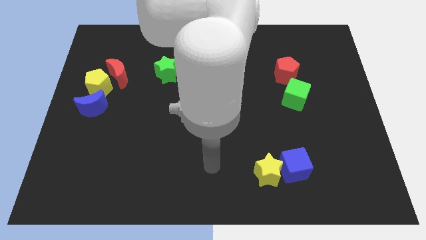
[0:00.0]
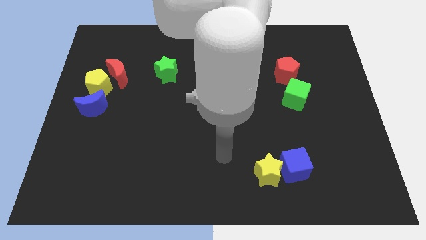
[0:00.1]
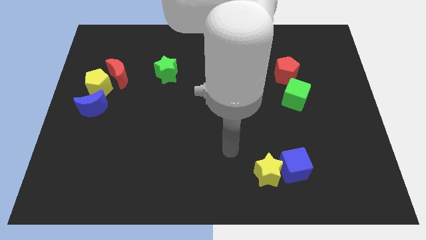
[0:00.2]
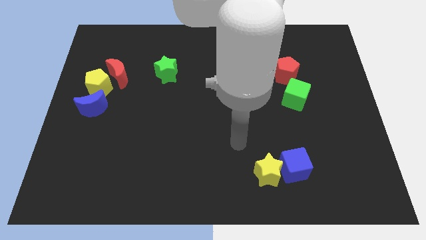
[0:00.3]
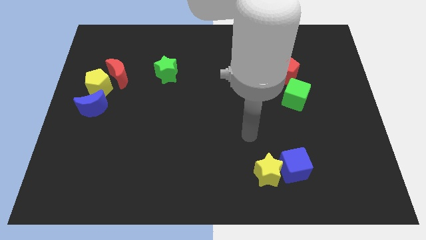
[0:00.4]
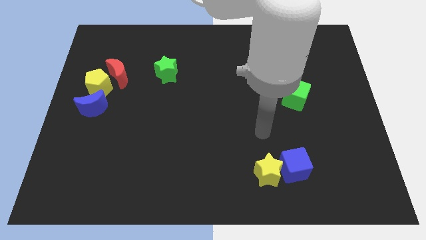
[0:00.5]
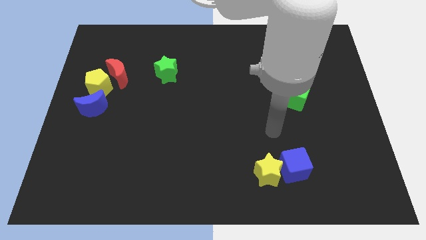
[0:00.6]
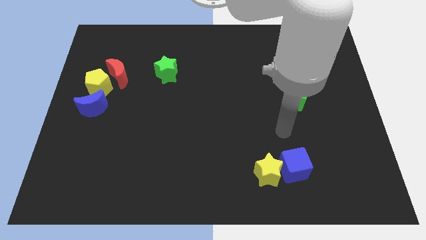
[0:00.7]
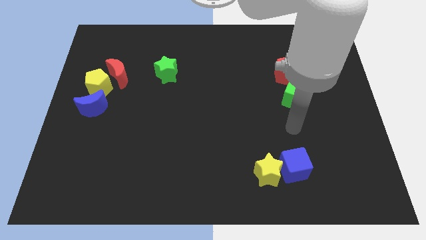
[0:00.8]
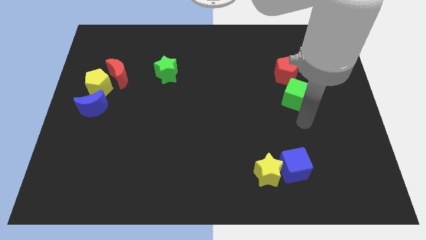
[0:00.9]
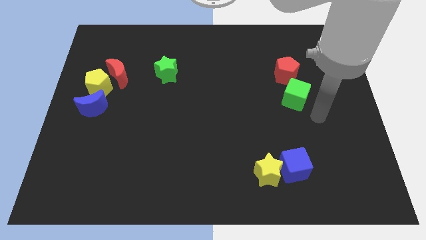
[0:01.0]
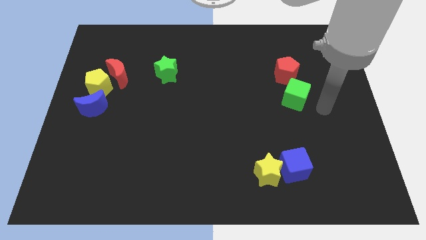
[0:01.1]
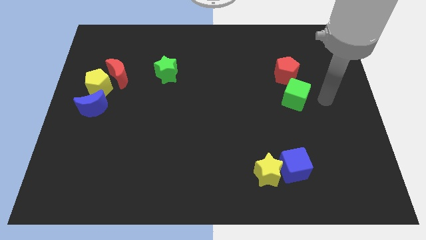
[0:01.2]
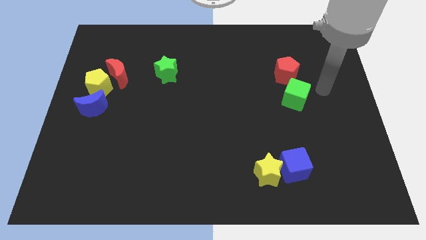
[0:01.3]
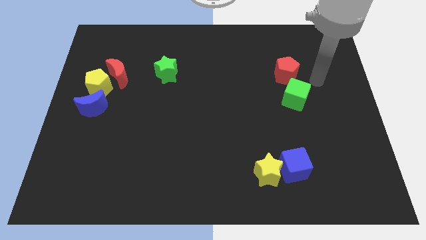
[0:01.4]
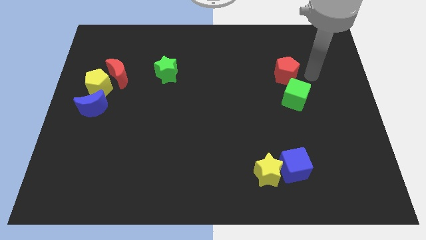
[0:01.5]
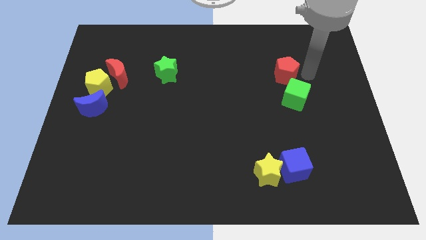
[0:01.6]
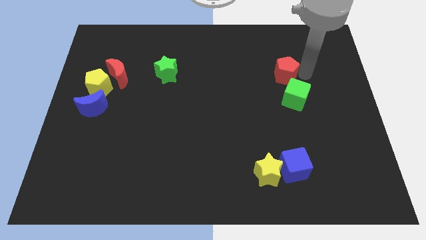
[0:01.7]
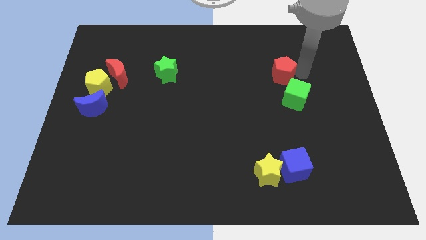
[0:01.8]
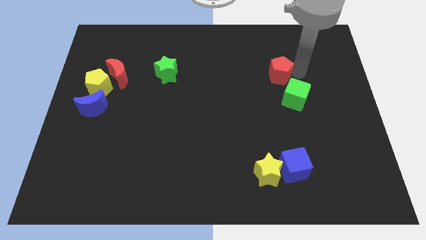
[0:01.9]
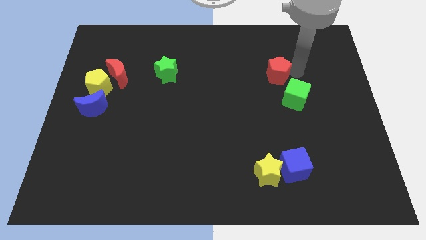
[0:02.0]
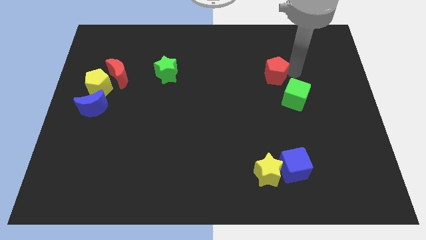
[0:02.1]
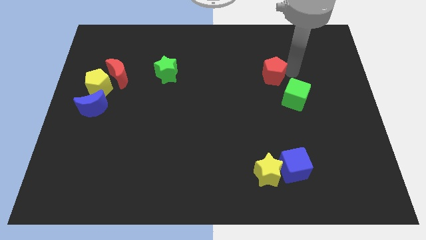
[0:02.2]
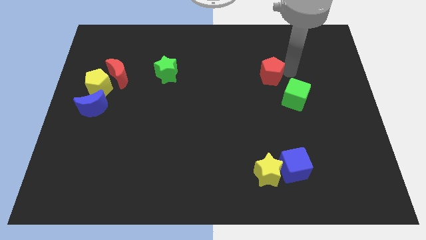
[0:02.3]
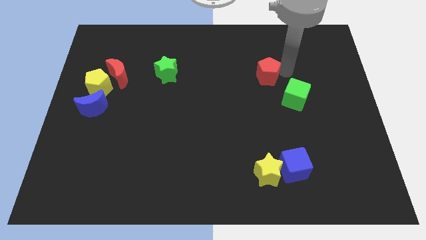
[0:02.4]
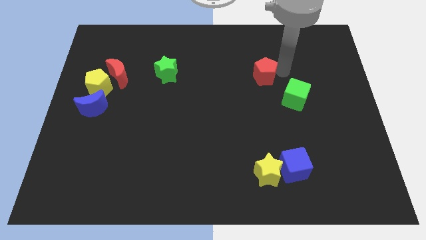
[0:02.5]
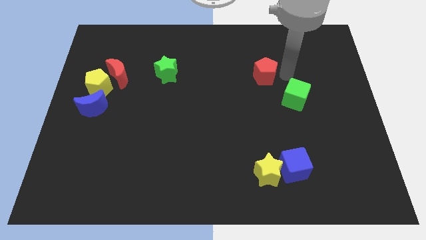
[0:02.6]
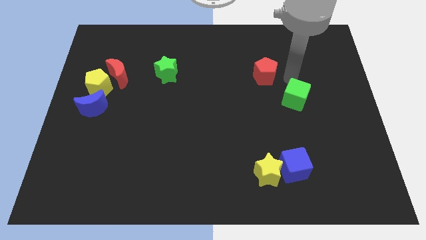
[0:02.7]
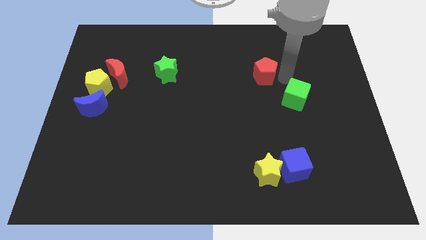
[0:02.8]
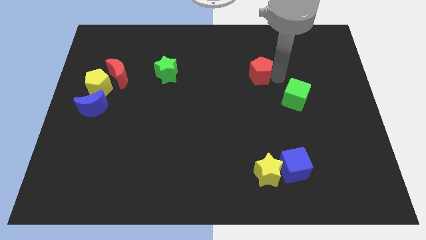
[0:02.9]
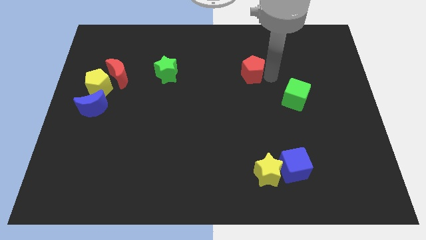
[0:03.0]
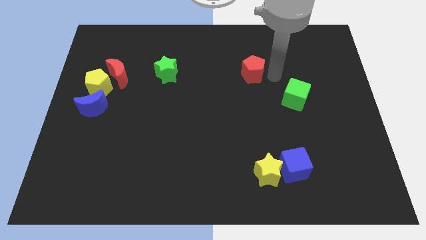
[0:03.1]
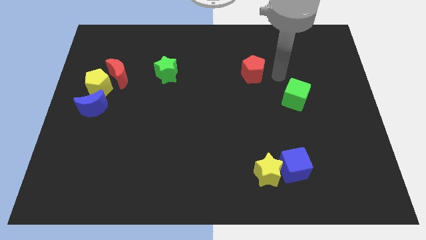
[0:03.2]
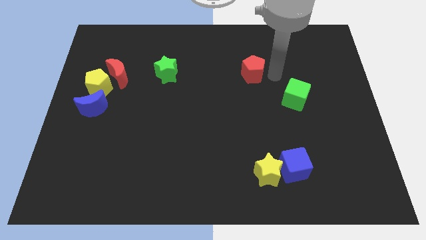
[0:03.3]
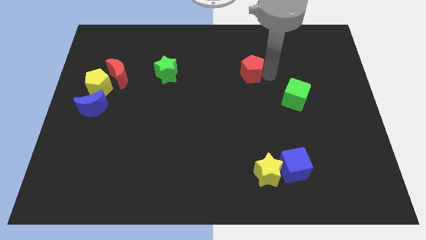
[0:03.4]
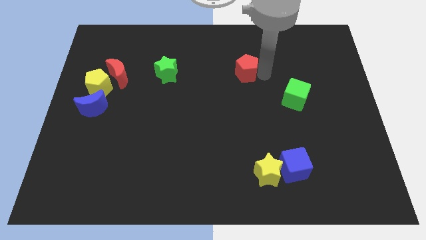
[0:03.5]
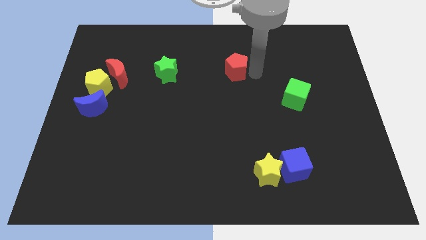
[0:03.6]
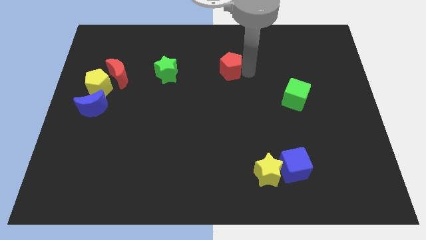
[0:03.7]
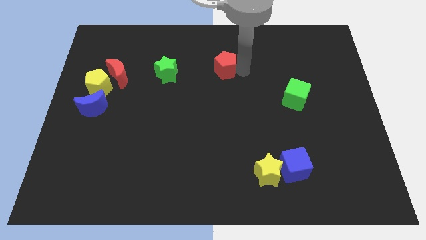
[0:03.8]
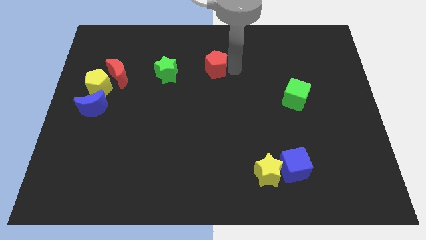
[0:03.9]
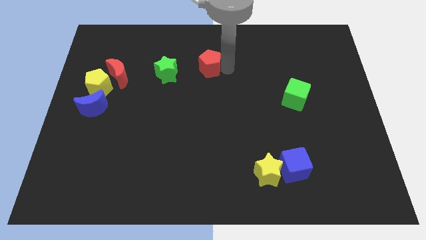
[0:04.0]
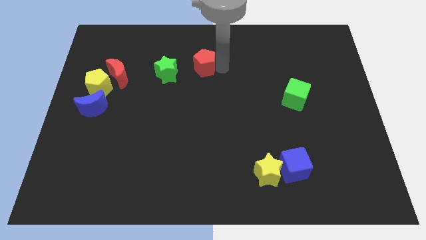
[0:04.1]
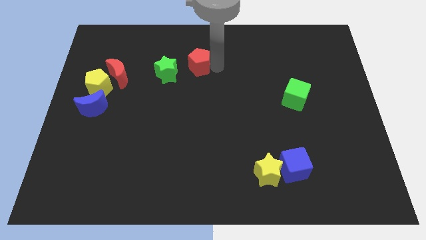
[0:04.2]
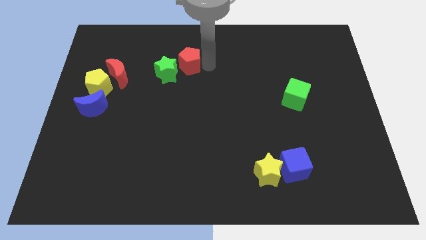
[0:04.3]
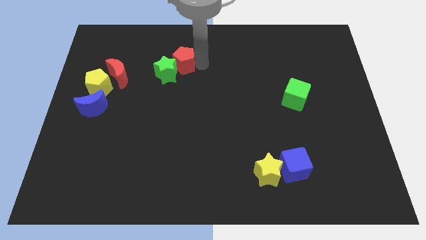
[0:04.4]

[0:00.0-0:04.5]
put the red pentagon close to the green star

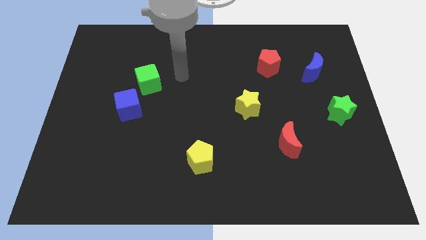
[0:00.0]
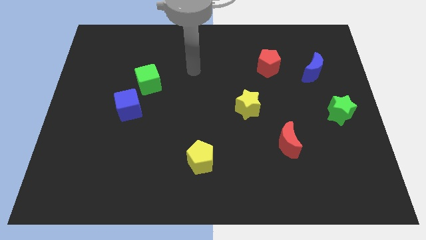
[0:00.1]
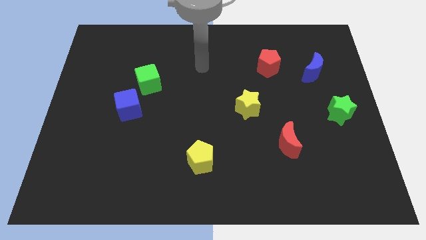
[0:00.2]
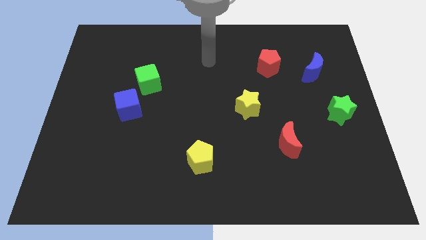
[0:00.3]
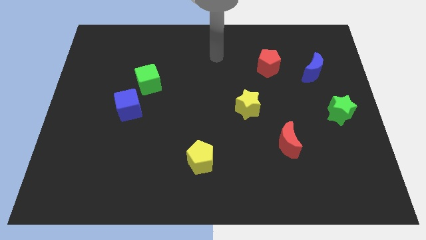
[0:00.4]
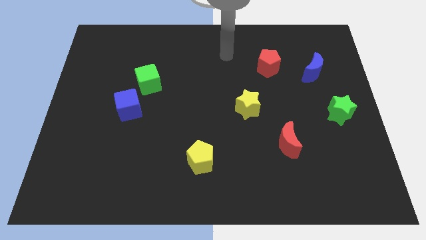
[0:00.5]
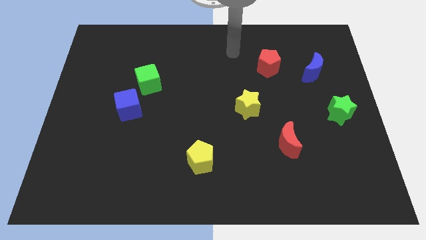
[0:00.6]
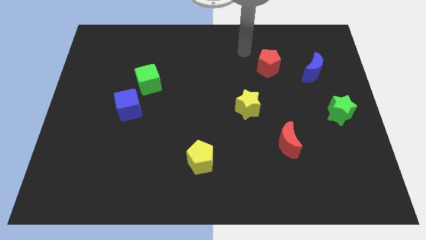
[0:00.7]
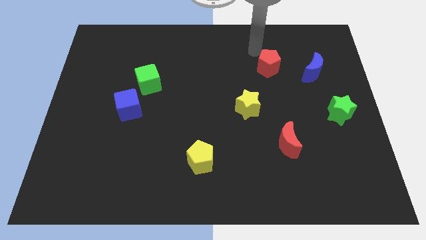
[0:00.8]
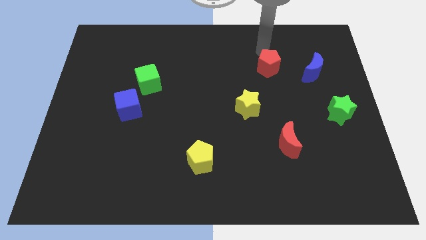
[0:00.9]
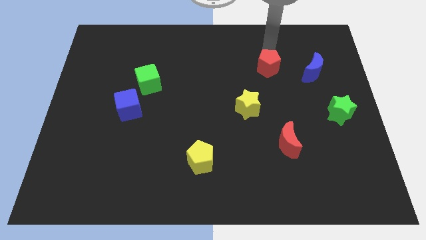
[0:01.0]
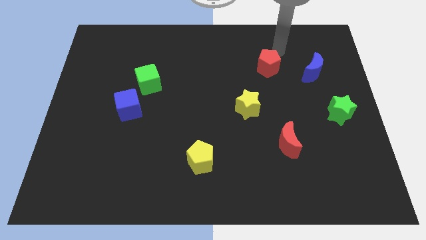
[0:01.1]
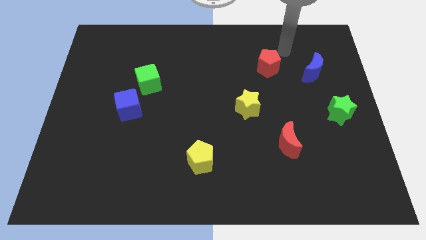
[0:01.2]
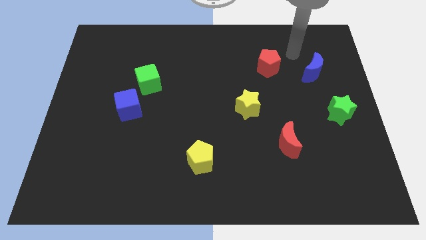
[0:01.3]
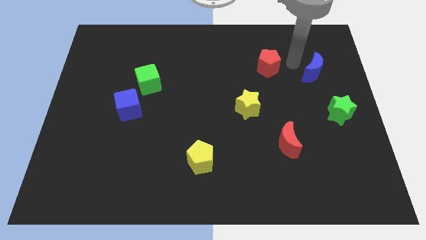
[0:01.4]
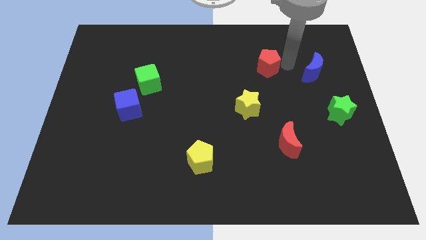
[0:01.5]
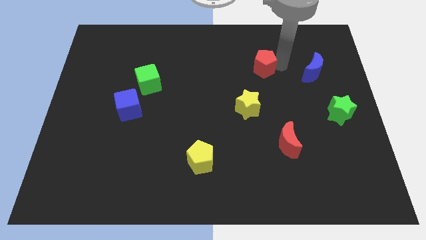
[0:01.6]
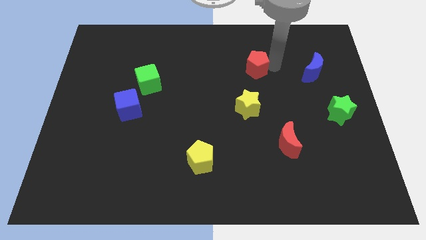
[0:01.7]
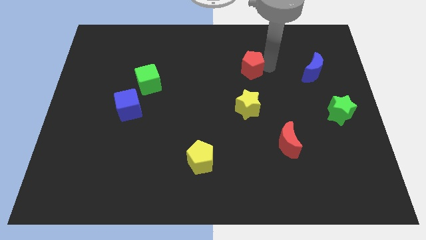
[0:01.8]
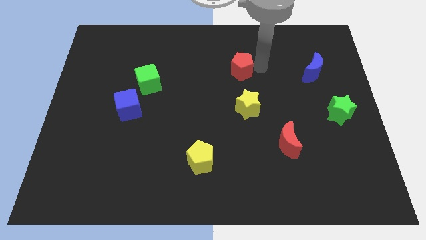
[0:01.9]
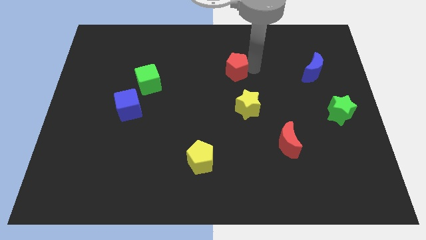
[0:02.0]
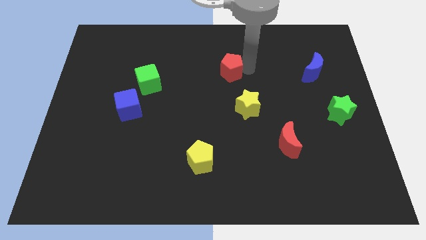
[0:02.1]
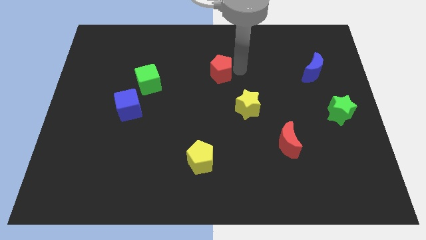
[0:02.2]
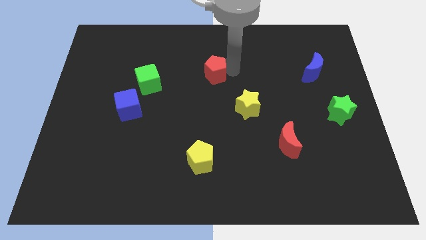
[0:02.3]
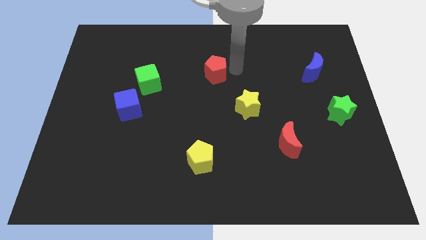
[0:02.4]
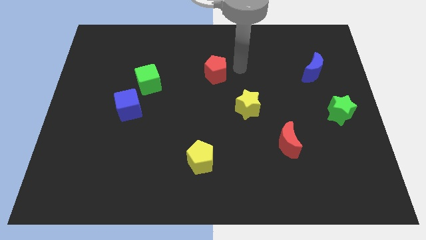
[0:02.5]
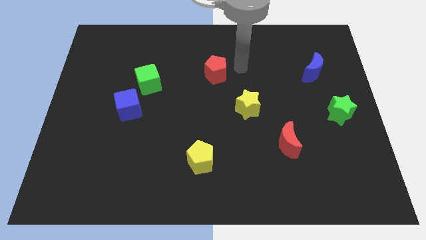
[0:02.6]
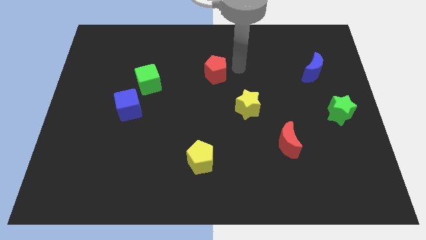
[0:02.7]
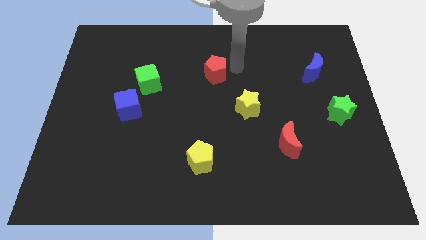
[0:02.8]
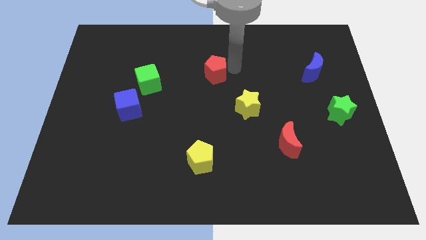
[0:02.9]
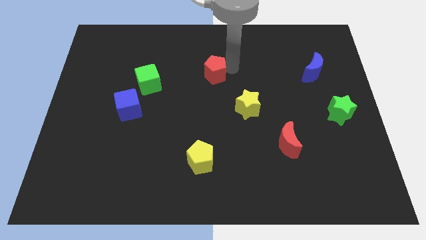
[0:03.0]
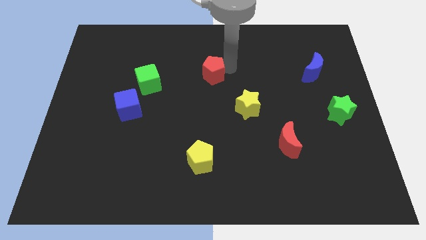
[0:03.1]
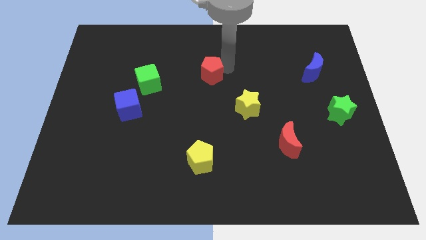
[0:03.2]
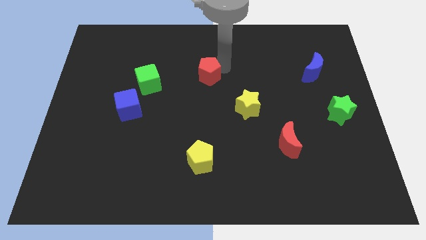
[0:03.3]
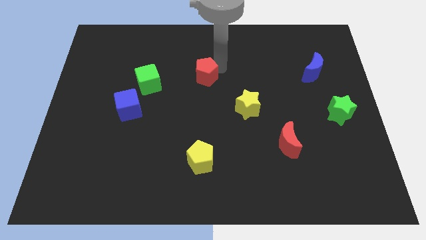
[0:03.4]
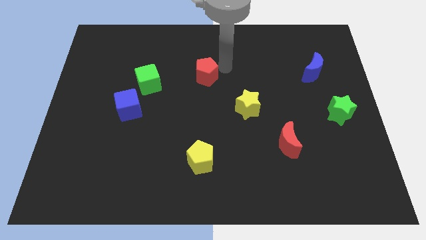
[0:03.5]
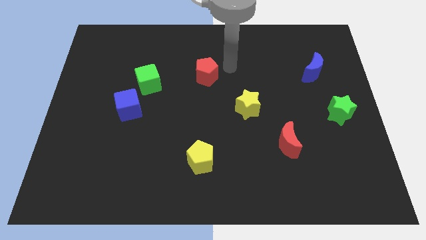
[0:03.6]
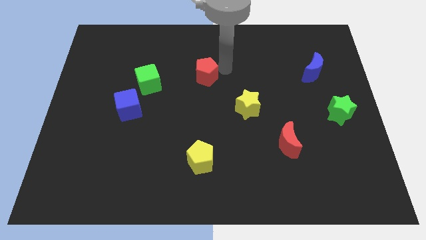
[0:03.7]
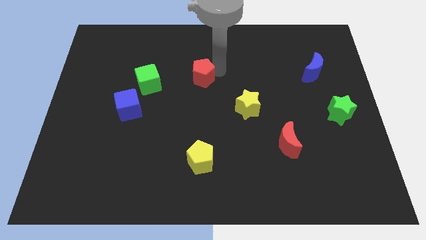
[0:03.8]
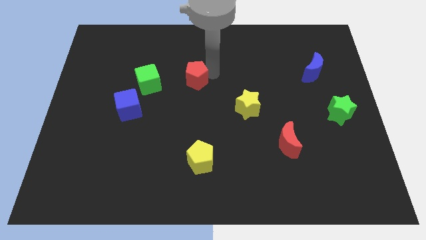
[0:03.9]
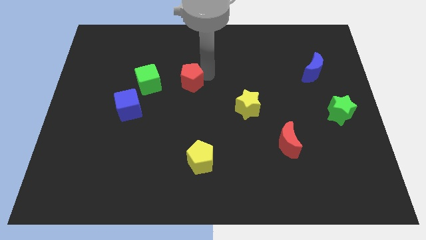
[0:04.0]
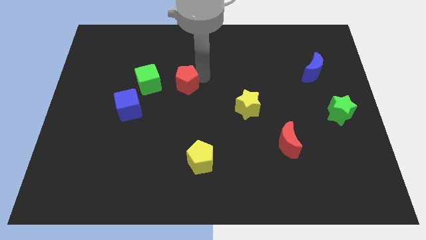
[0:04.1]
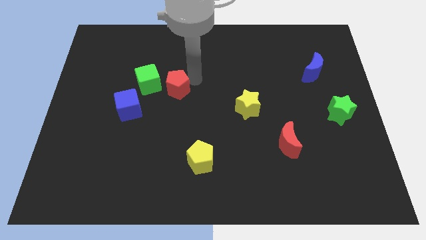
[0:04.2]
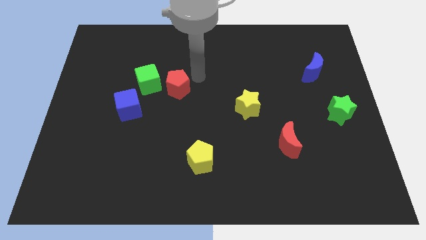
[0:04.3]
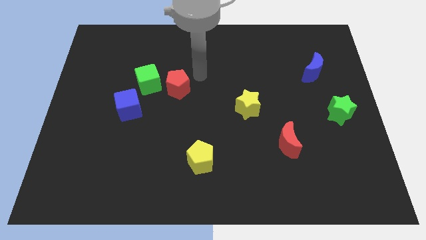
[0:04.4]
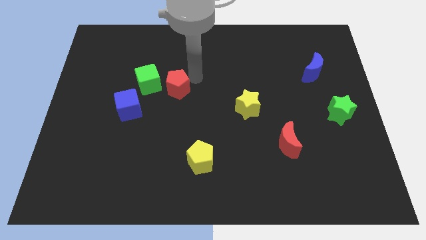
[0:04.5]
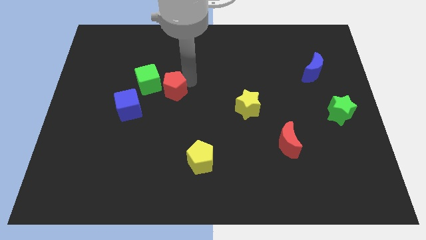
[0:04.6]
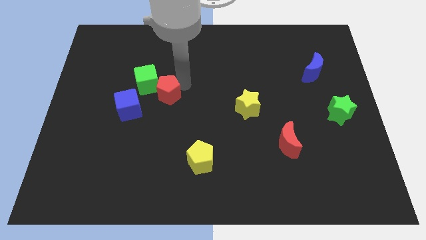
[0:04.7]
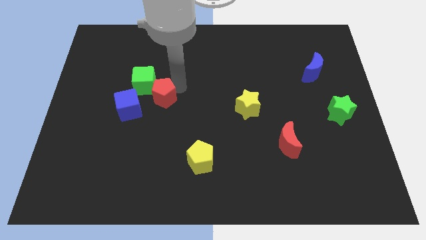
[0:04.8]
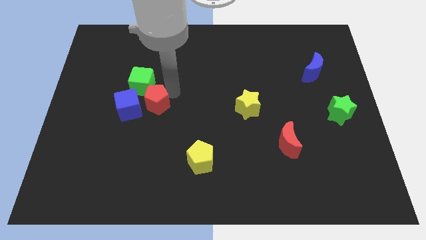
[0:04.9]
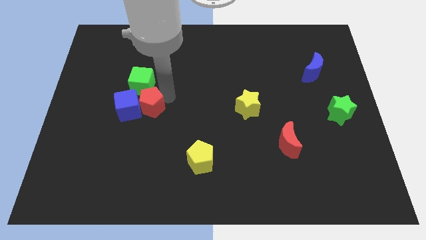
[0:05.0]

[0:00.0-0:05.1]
slide the red pentagon to the blue cube
